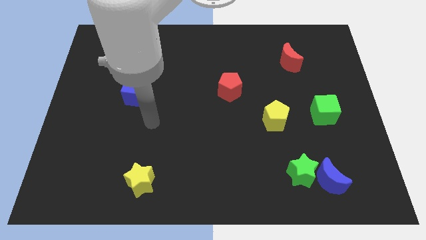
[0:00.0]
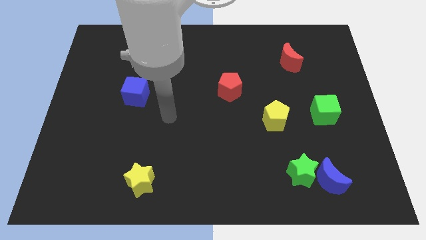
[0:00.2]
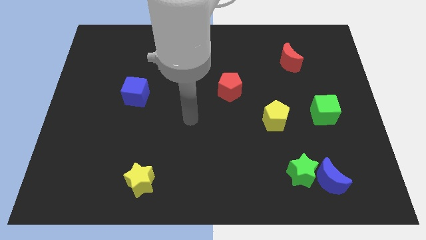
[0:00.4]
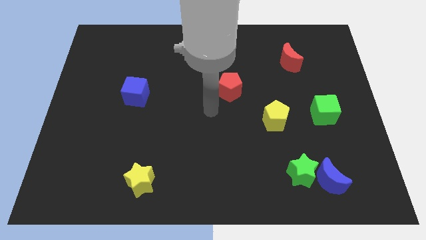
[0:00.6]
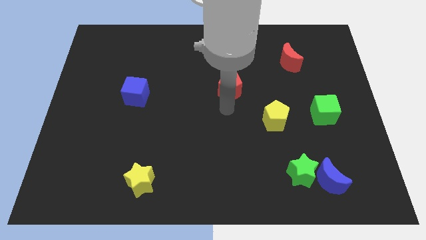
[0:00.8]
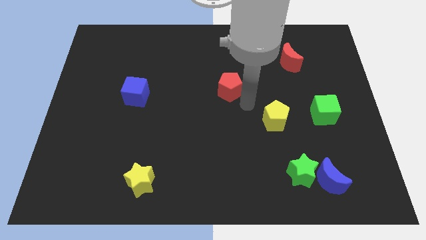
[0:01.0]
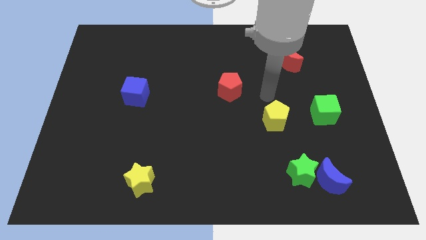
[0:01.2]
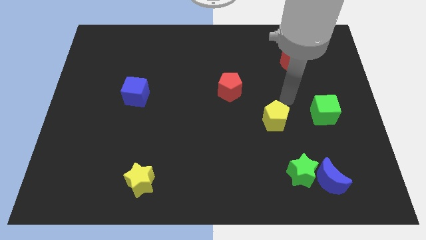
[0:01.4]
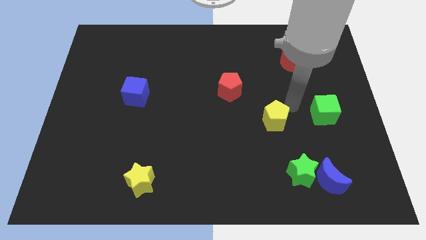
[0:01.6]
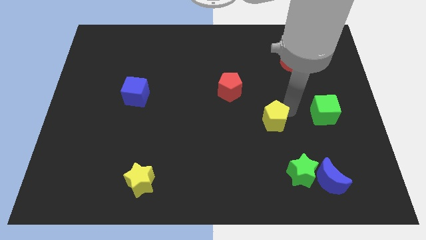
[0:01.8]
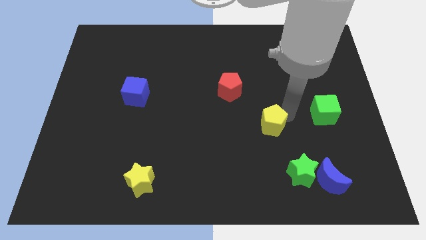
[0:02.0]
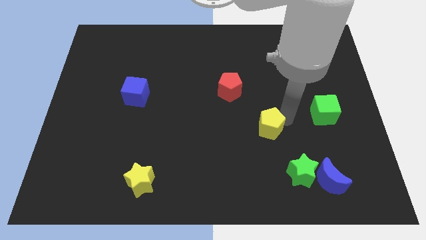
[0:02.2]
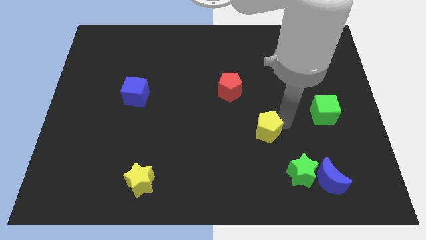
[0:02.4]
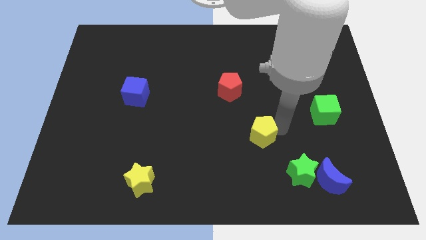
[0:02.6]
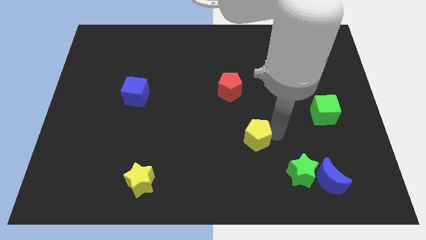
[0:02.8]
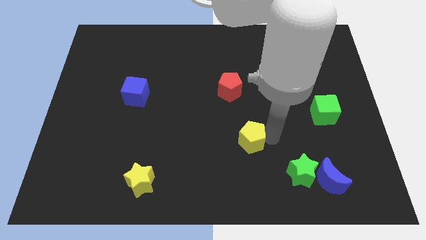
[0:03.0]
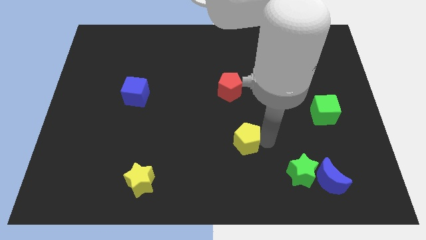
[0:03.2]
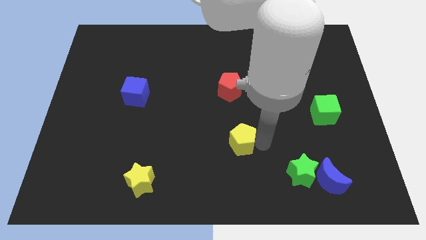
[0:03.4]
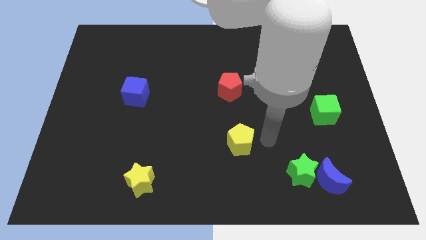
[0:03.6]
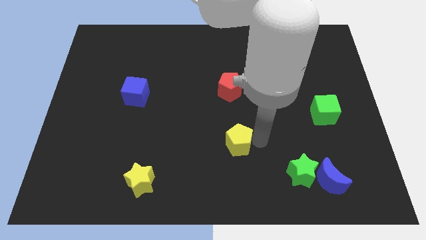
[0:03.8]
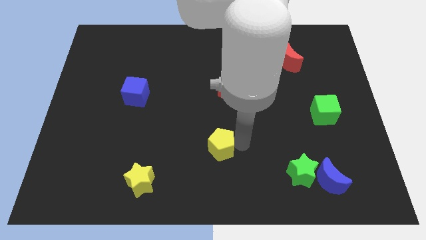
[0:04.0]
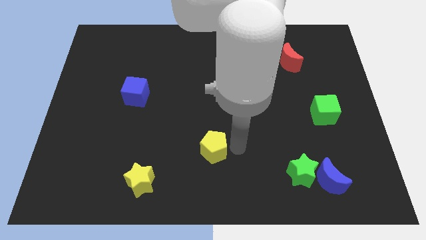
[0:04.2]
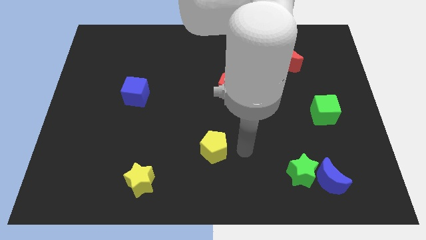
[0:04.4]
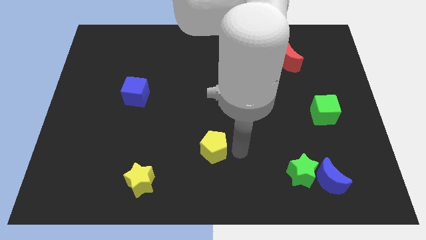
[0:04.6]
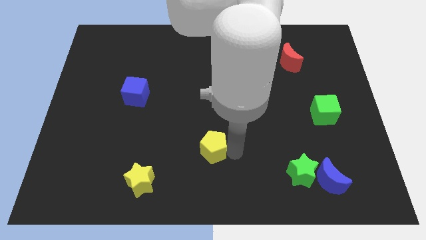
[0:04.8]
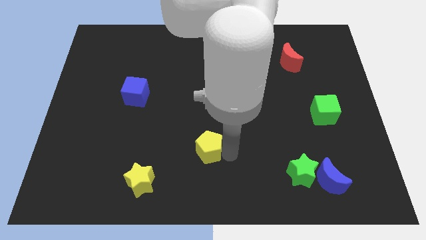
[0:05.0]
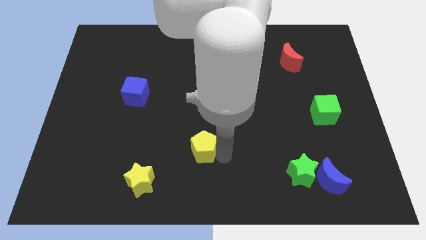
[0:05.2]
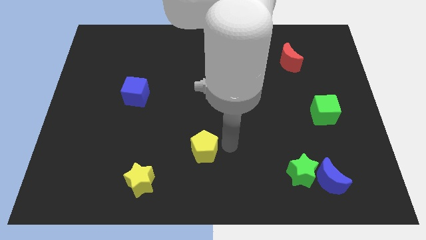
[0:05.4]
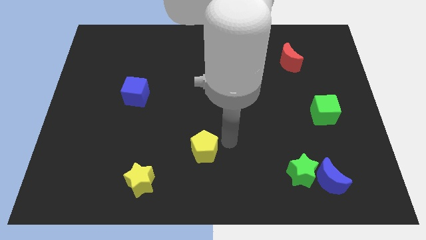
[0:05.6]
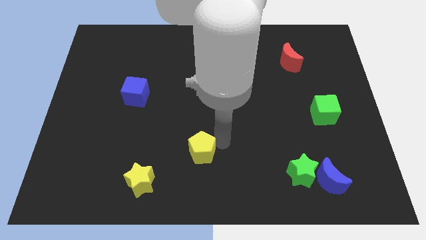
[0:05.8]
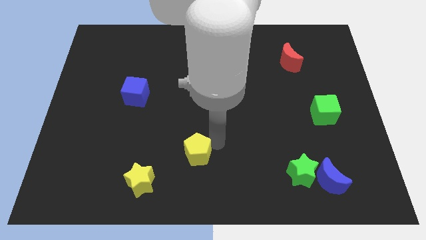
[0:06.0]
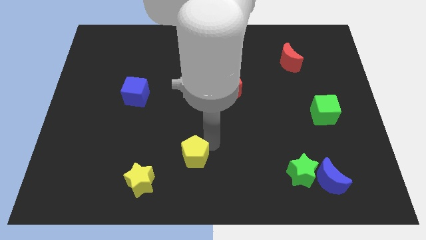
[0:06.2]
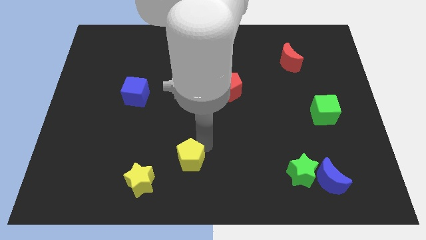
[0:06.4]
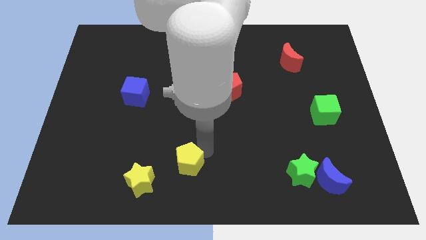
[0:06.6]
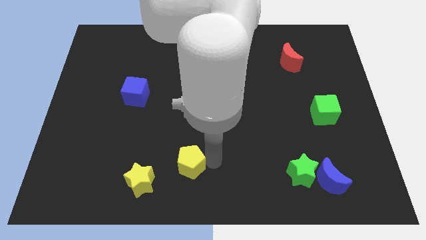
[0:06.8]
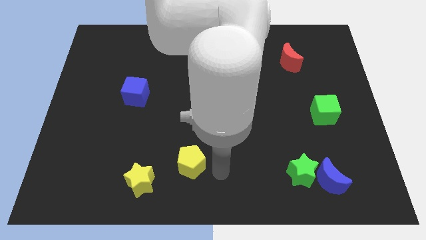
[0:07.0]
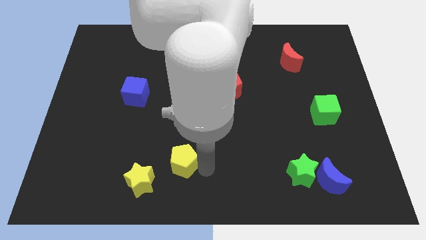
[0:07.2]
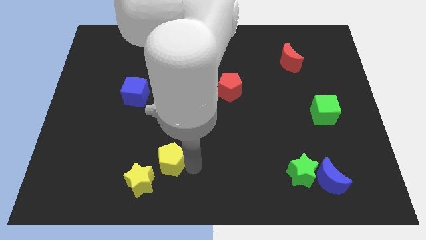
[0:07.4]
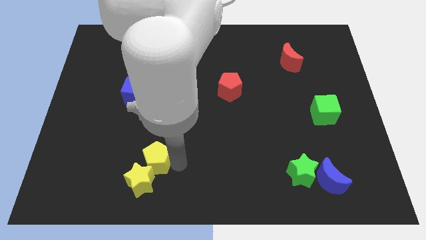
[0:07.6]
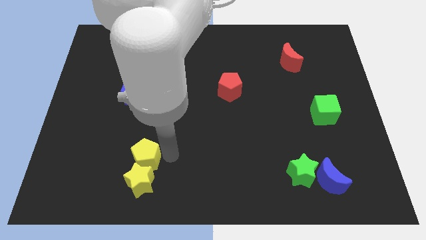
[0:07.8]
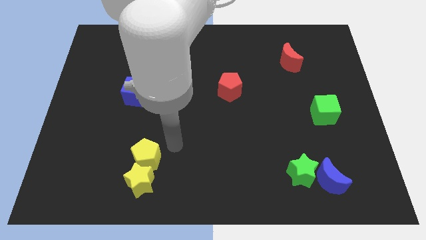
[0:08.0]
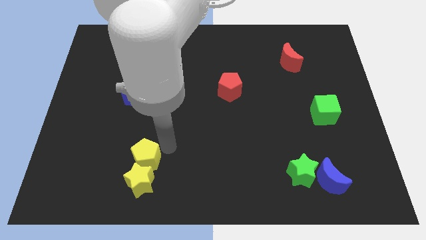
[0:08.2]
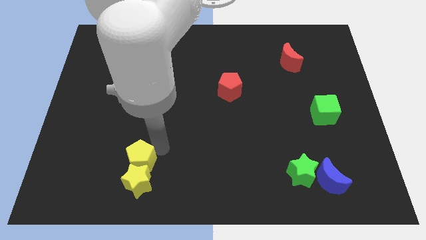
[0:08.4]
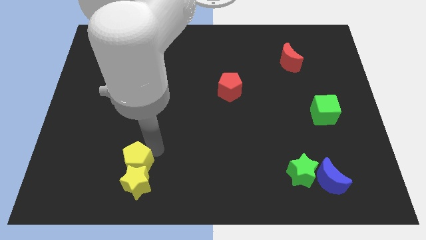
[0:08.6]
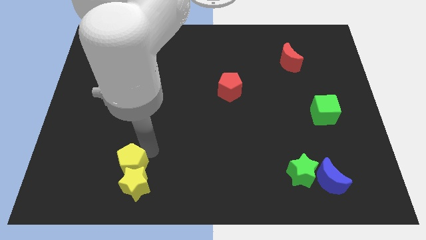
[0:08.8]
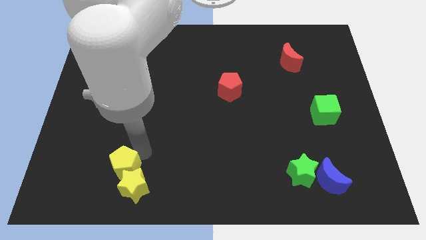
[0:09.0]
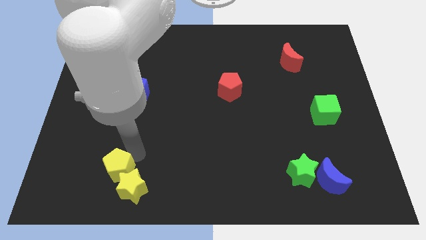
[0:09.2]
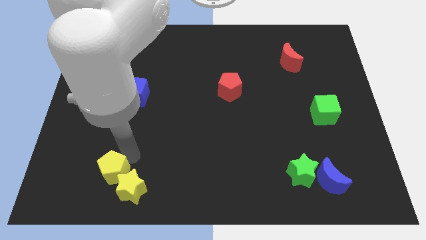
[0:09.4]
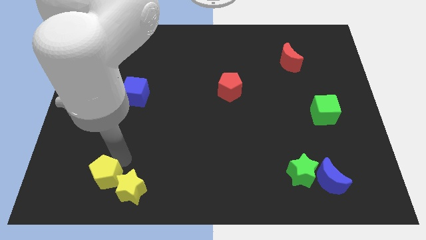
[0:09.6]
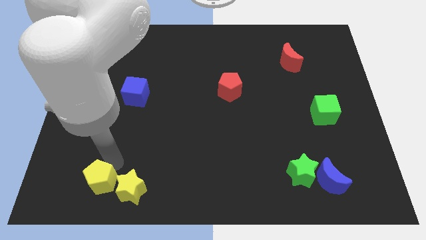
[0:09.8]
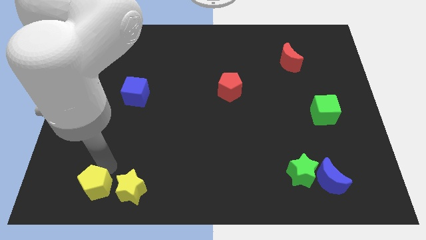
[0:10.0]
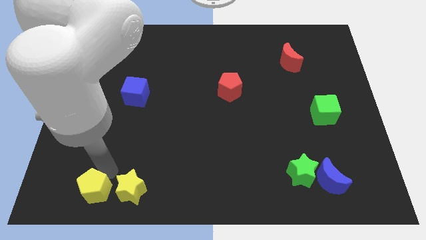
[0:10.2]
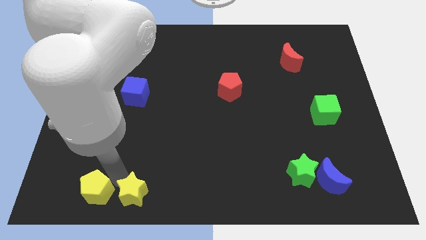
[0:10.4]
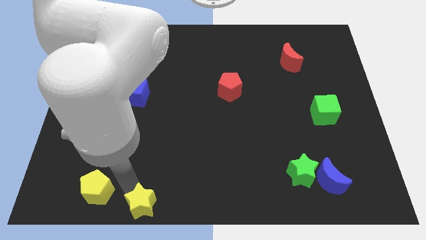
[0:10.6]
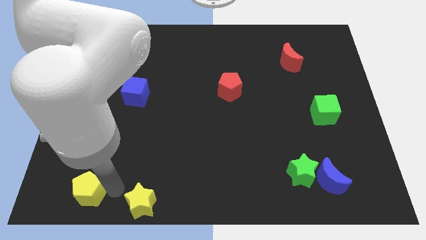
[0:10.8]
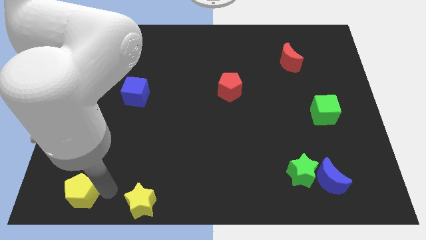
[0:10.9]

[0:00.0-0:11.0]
slide the yellow pentagon to the bottom left
